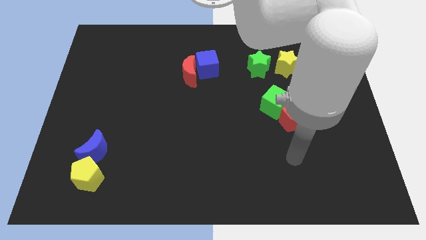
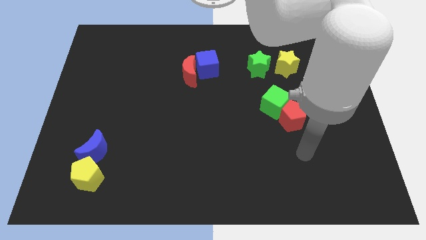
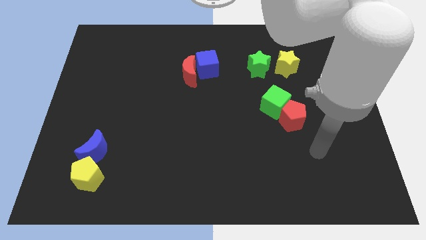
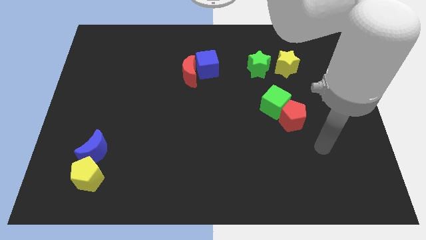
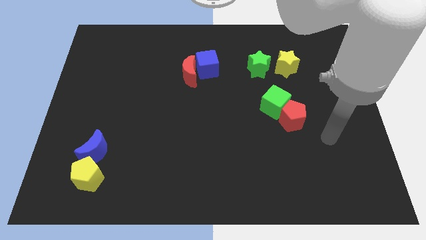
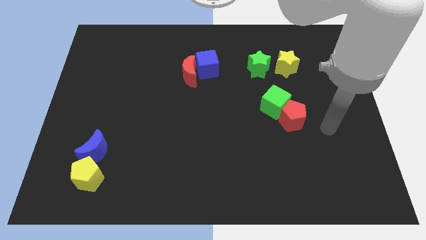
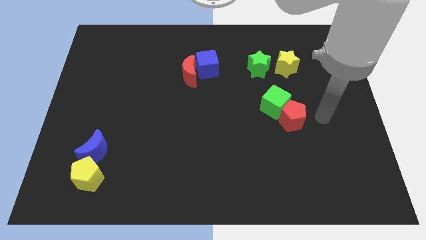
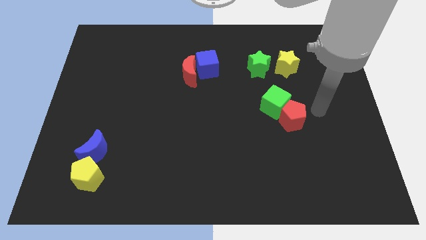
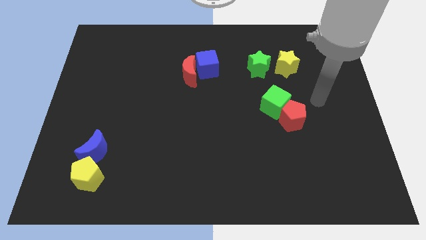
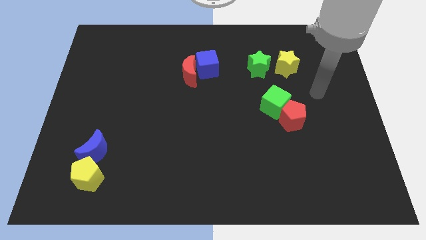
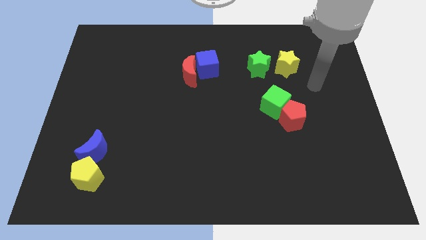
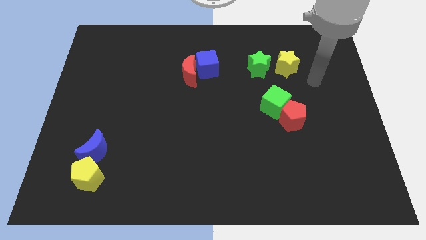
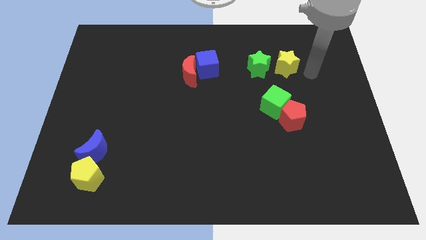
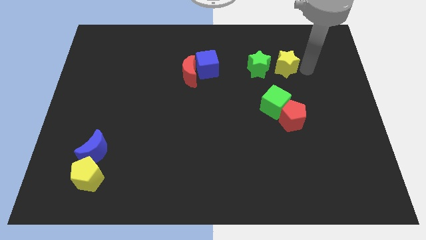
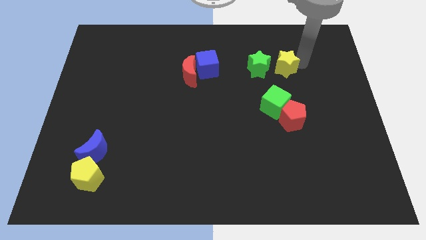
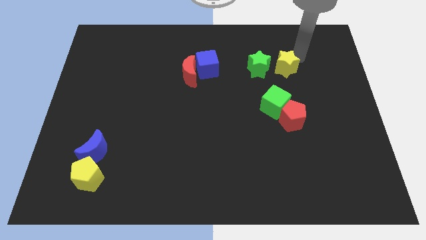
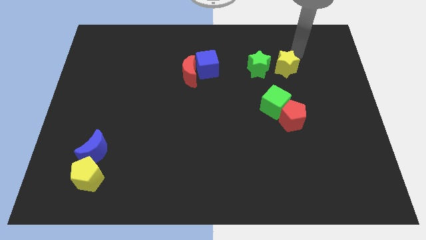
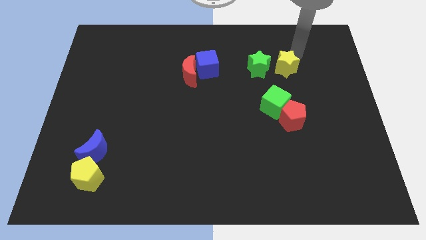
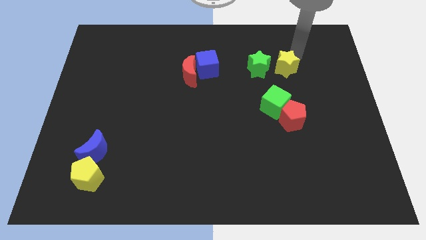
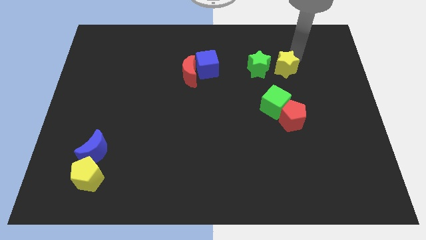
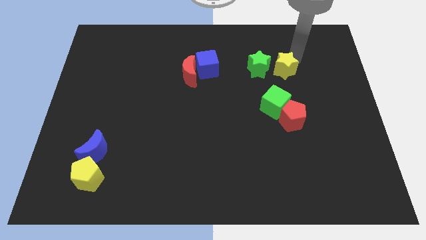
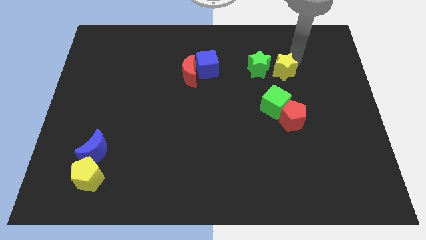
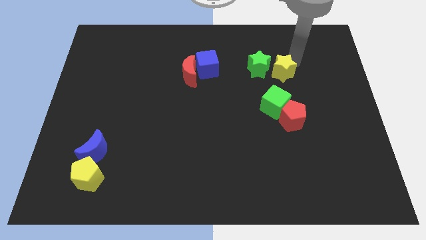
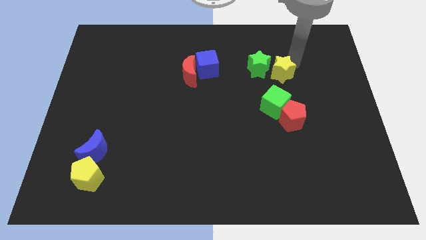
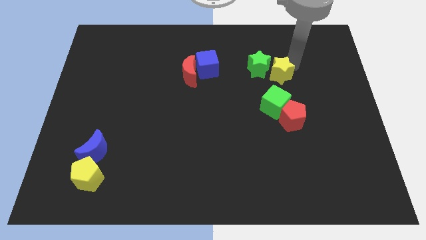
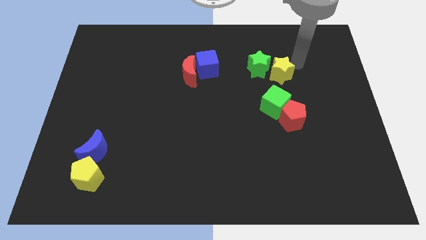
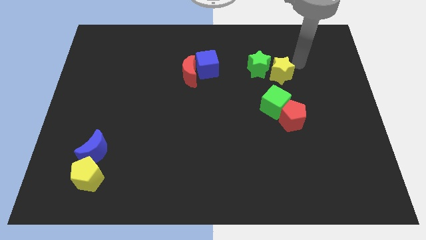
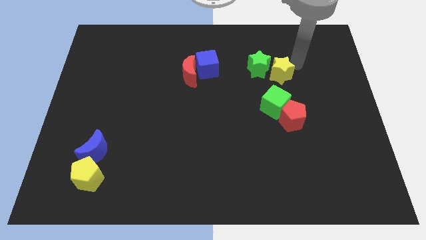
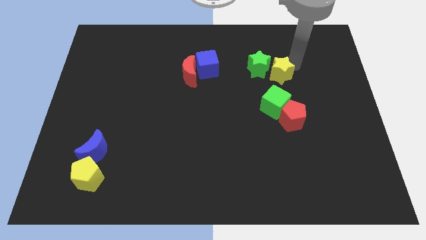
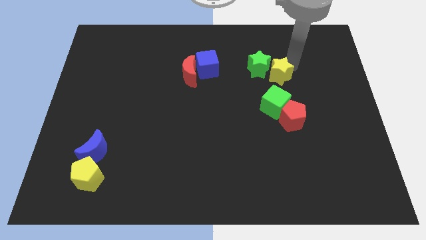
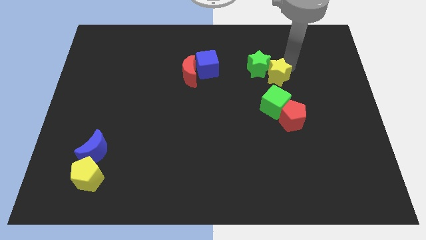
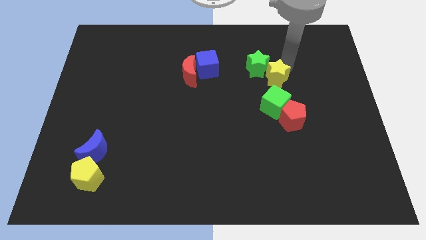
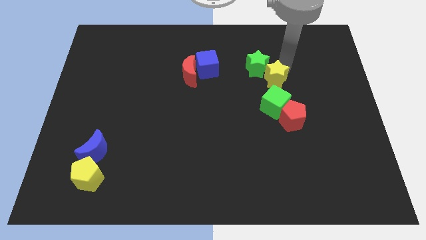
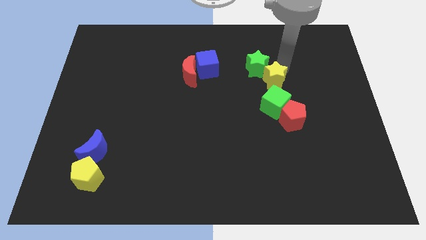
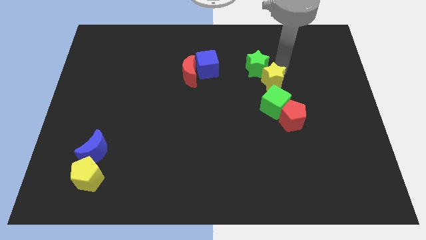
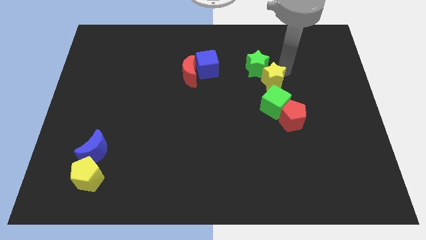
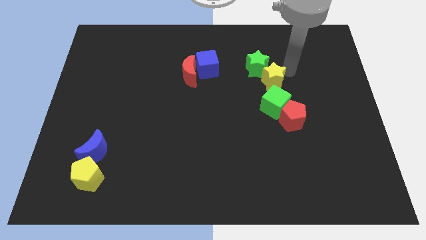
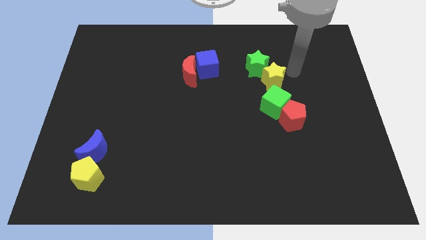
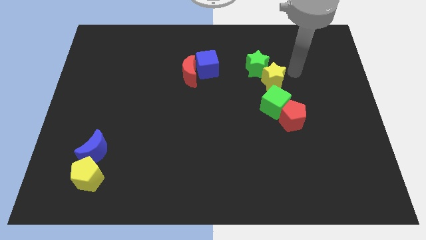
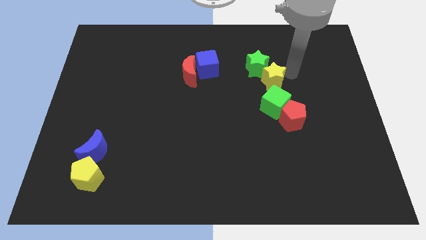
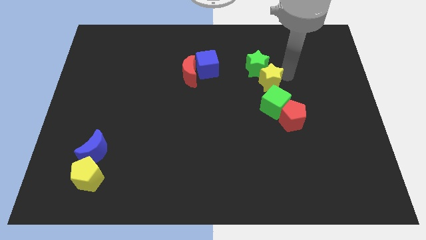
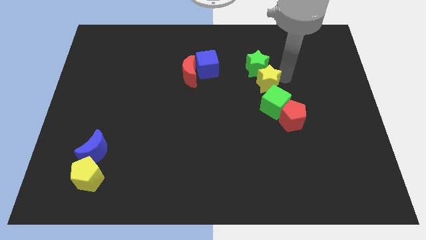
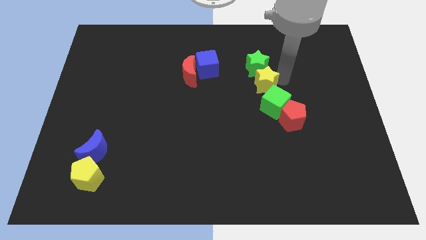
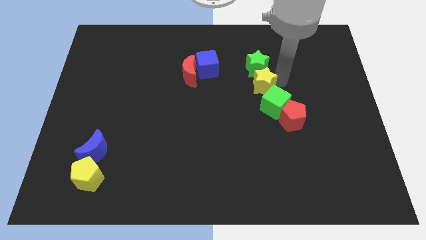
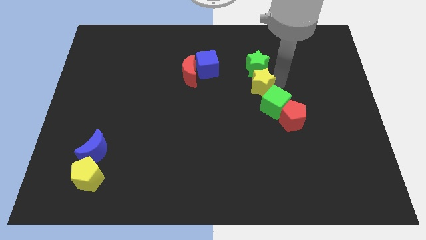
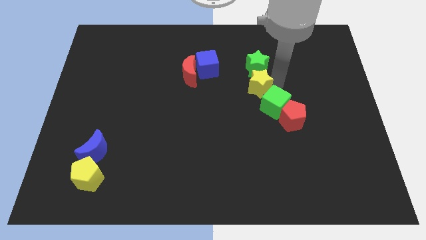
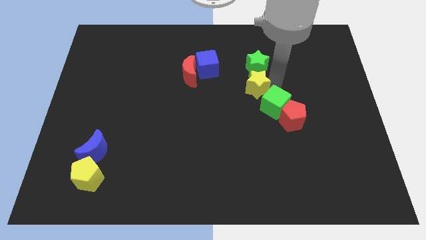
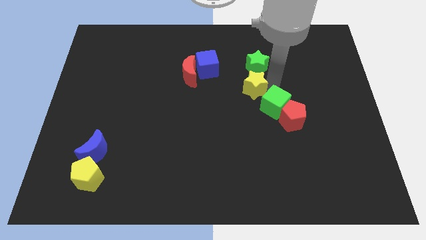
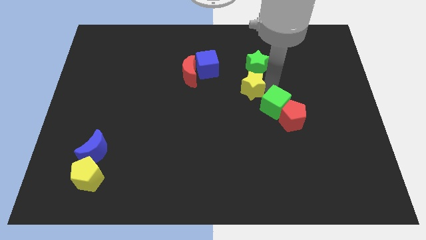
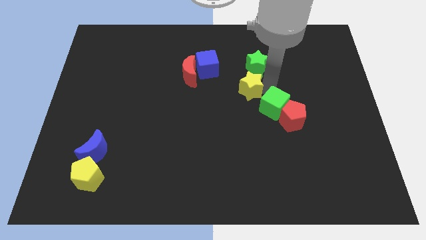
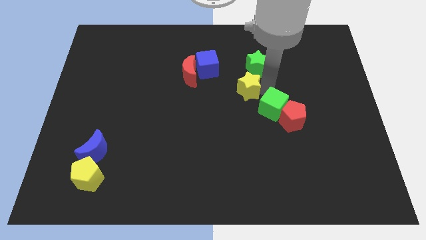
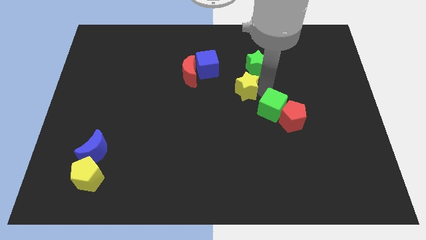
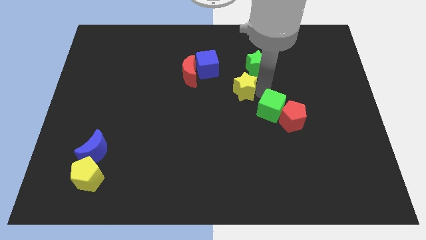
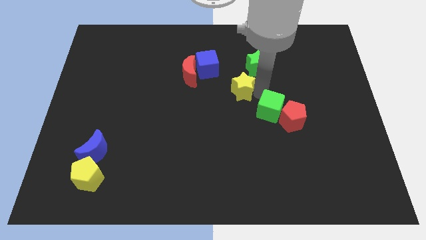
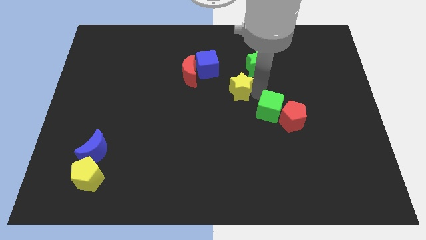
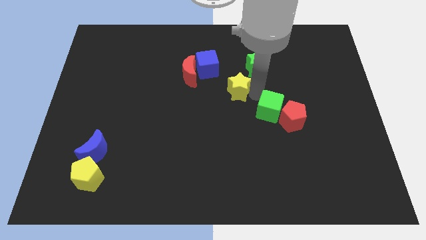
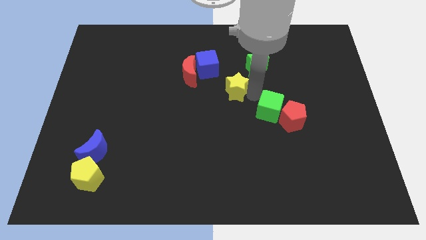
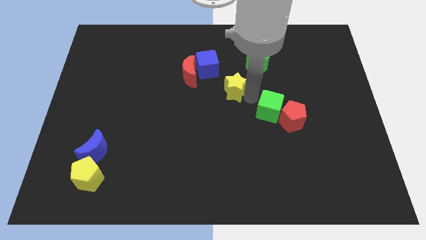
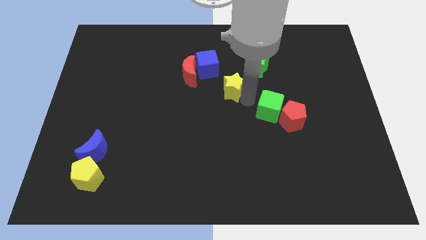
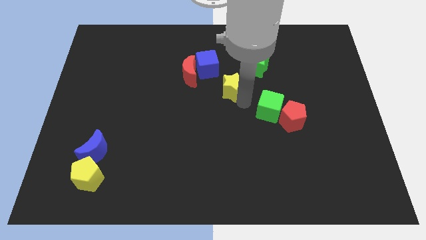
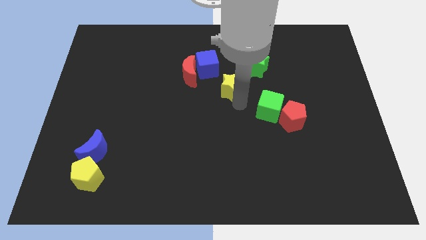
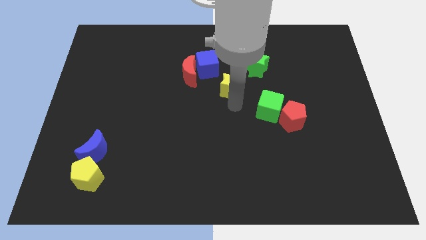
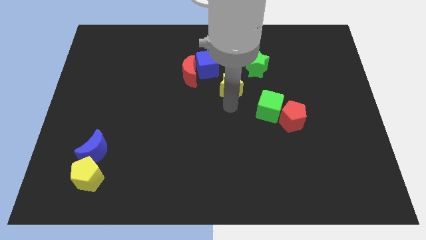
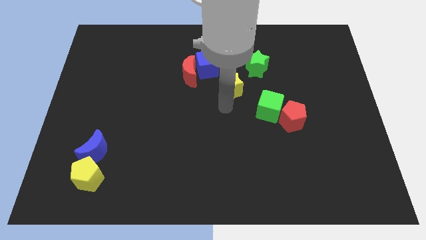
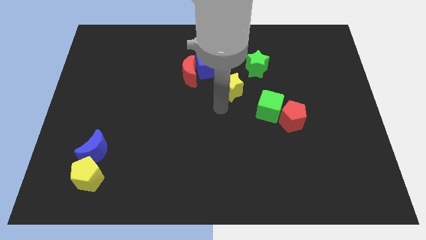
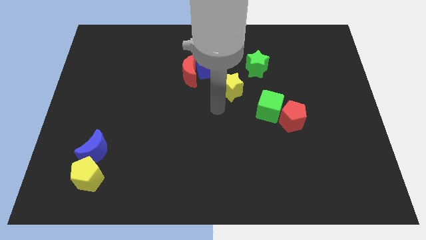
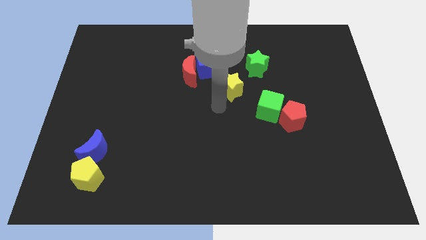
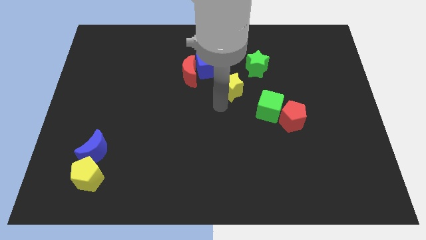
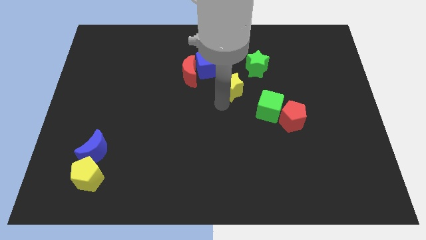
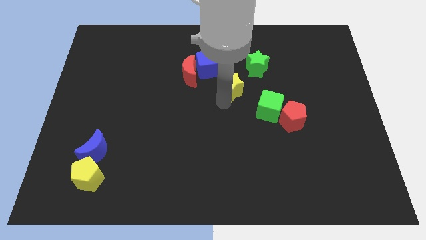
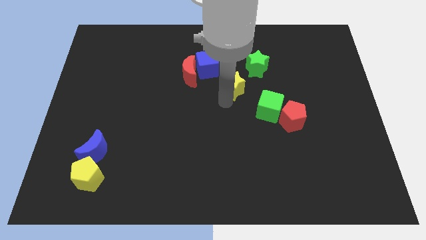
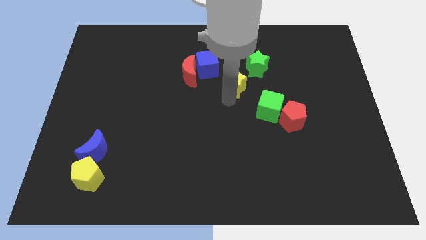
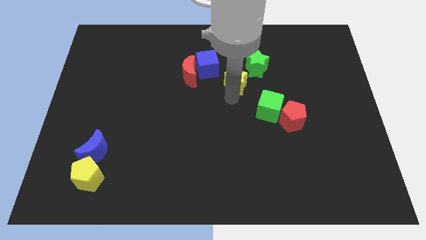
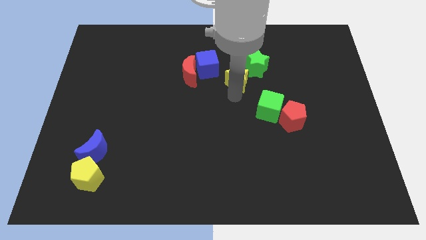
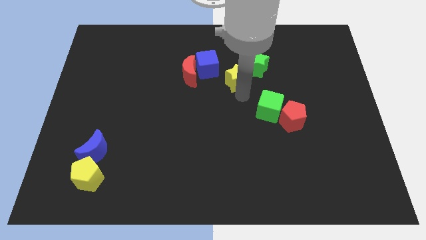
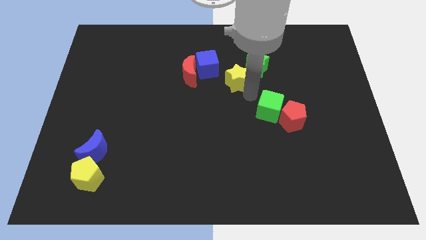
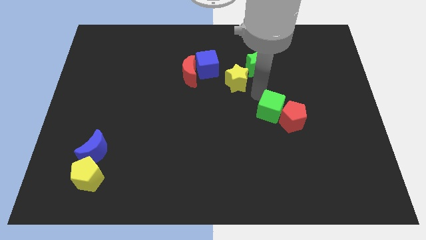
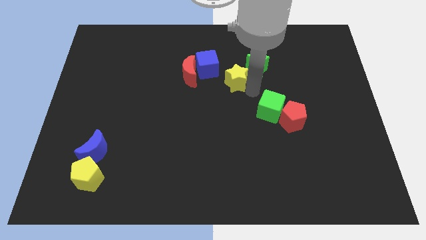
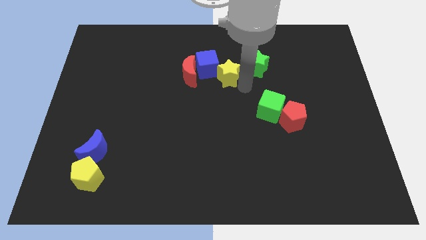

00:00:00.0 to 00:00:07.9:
move the yellow star next to the blue cube
